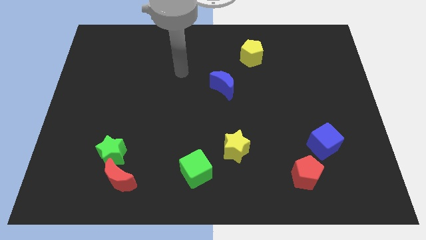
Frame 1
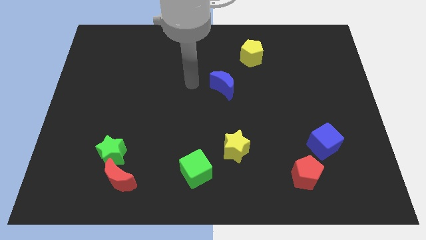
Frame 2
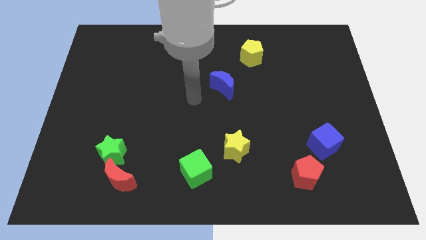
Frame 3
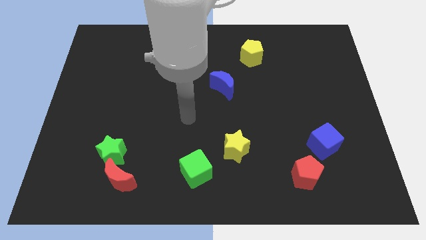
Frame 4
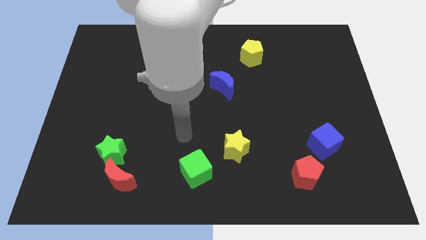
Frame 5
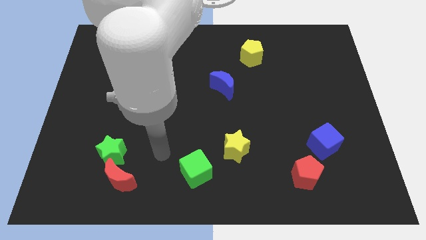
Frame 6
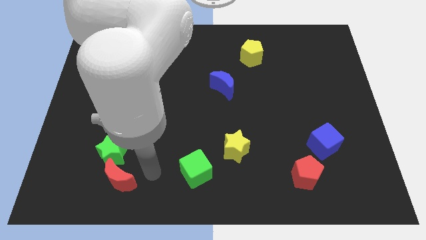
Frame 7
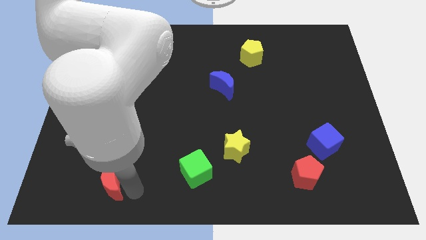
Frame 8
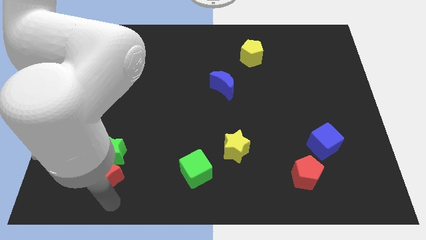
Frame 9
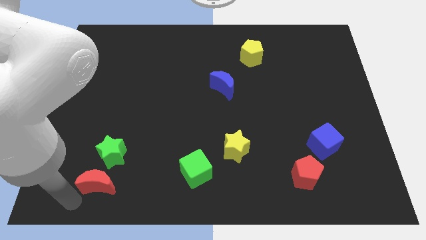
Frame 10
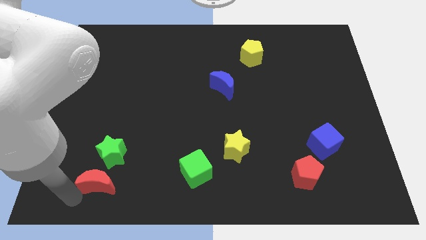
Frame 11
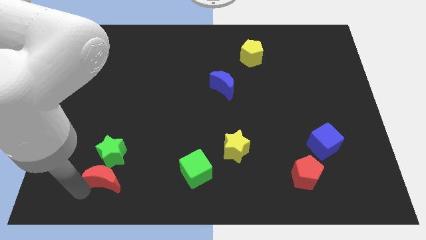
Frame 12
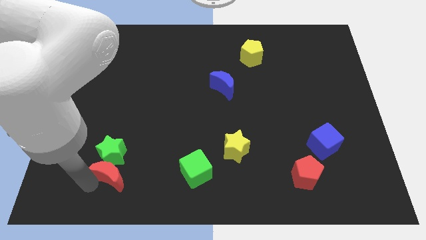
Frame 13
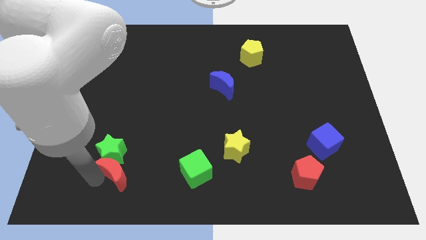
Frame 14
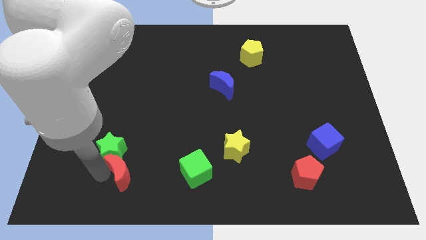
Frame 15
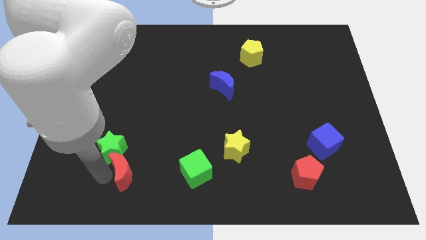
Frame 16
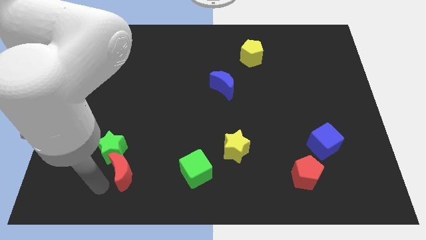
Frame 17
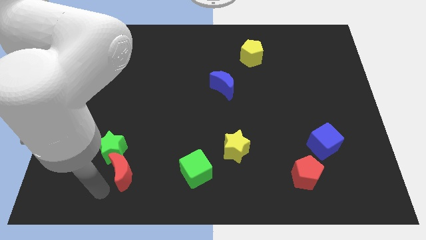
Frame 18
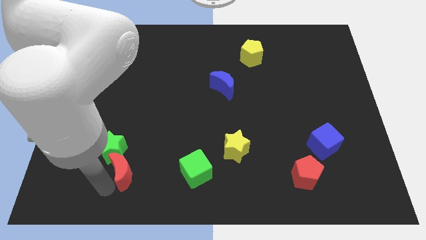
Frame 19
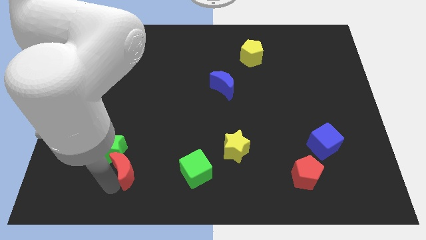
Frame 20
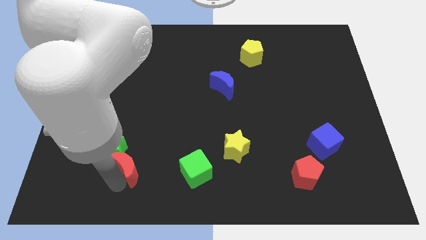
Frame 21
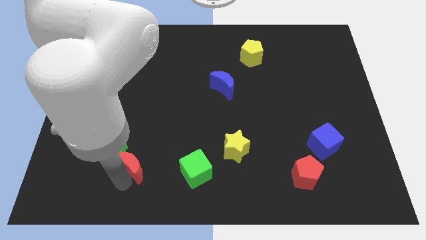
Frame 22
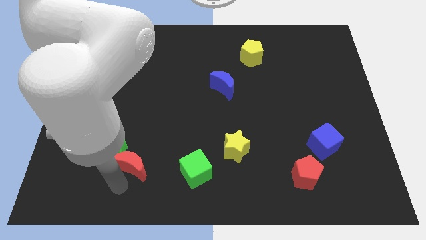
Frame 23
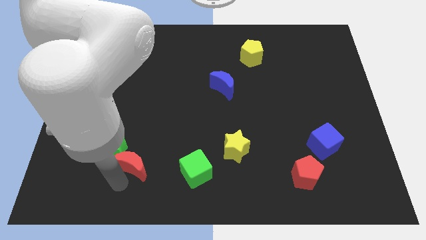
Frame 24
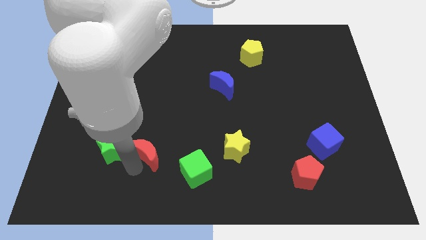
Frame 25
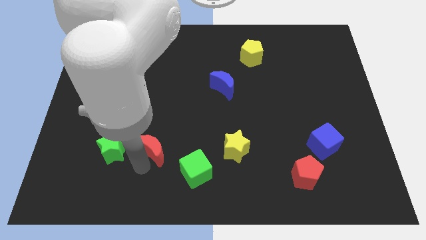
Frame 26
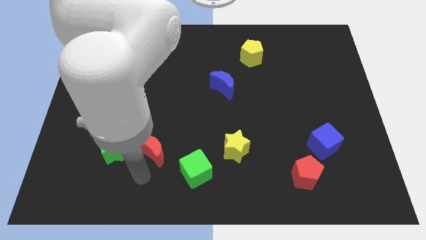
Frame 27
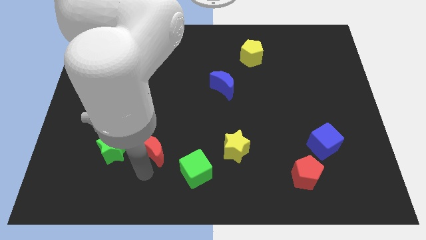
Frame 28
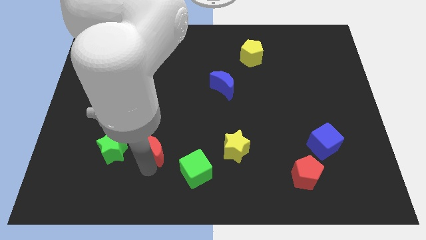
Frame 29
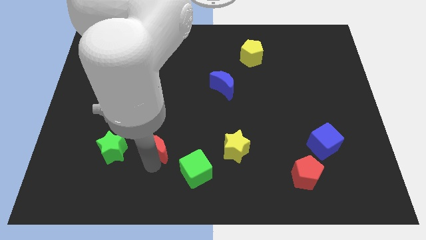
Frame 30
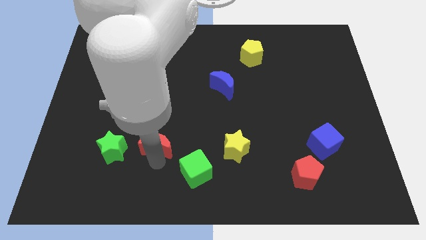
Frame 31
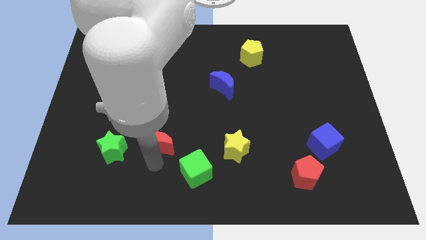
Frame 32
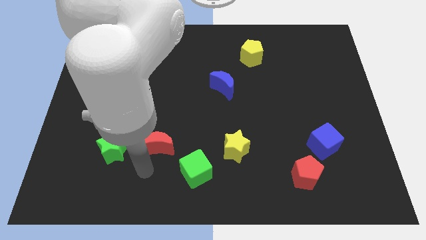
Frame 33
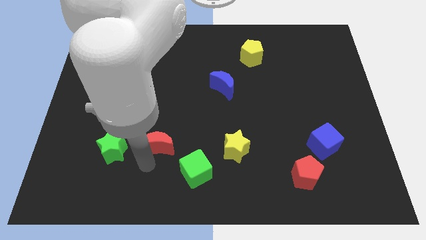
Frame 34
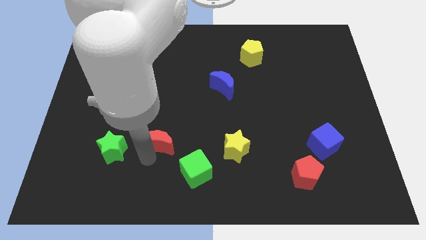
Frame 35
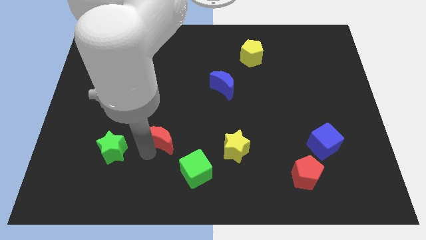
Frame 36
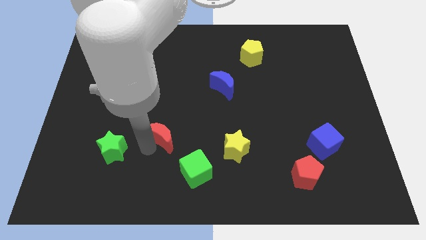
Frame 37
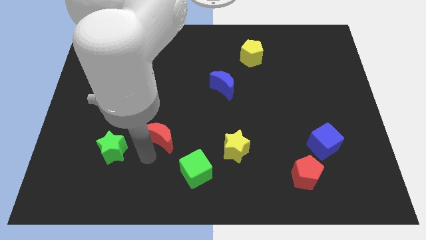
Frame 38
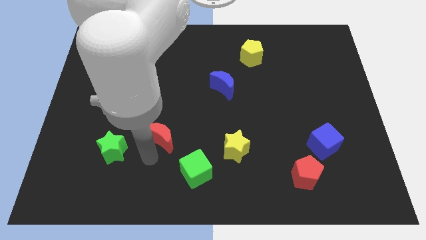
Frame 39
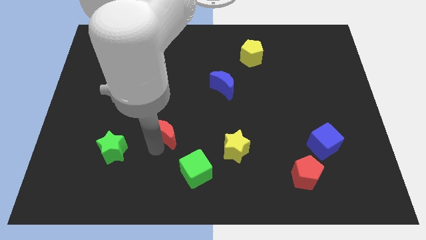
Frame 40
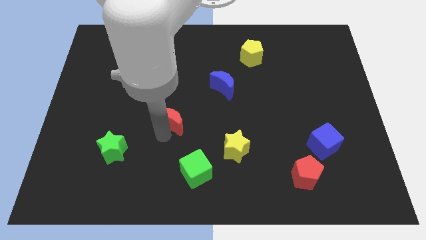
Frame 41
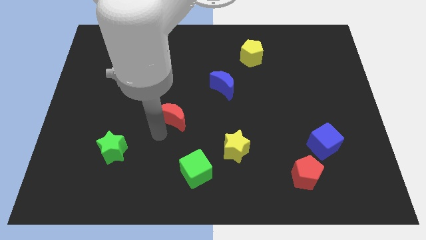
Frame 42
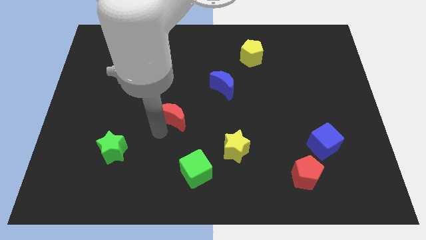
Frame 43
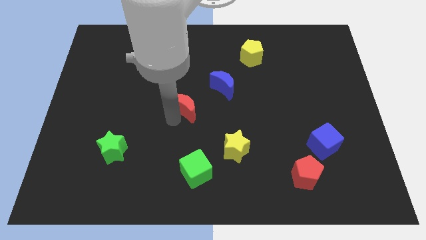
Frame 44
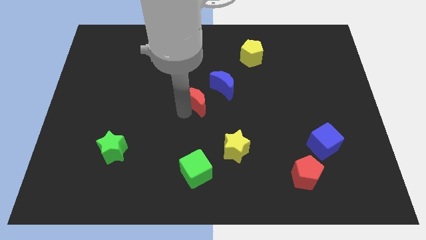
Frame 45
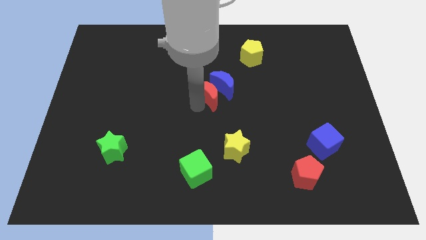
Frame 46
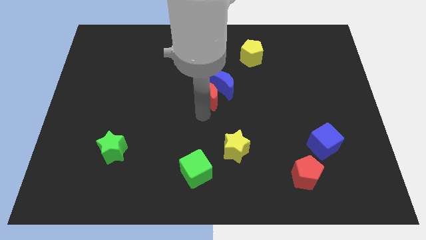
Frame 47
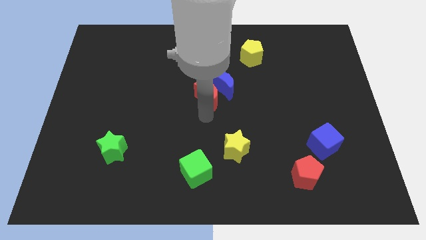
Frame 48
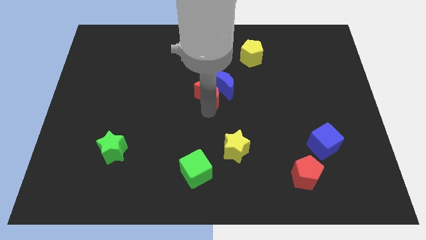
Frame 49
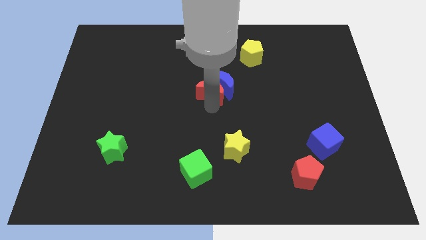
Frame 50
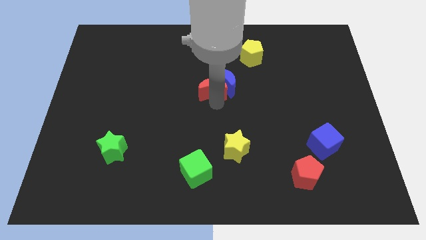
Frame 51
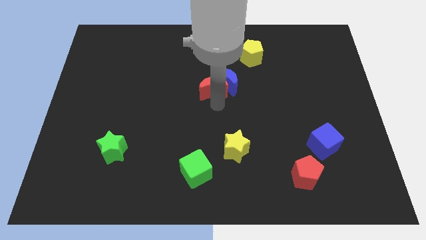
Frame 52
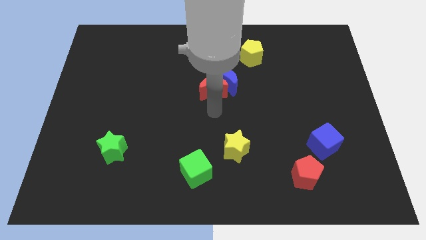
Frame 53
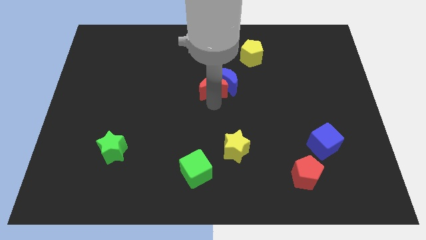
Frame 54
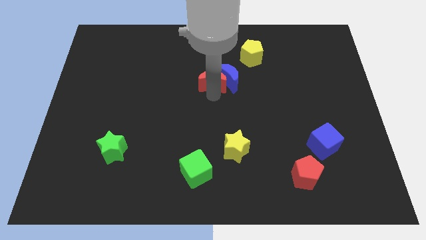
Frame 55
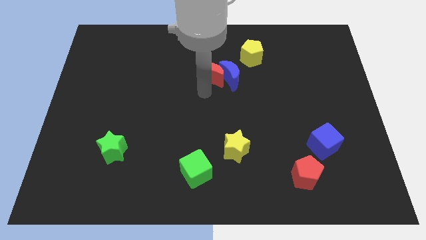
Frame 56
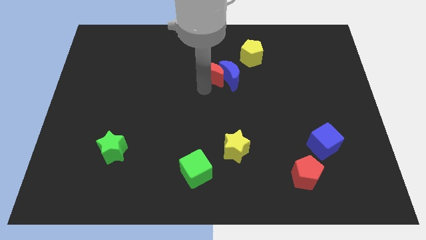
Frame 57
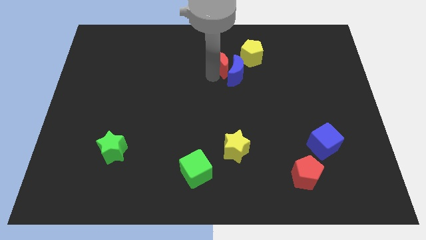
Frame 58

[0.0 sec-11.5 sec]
slide the red moon above the blue moon
